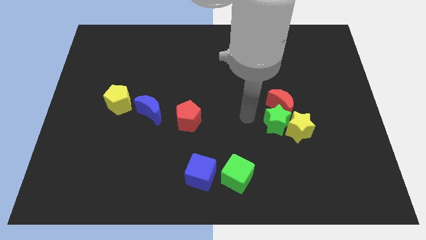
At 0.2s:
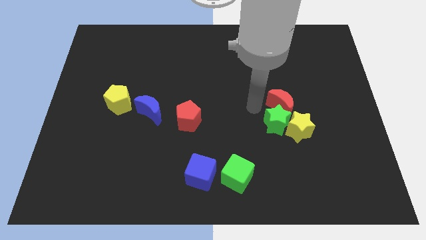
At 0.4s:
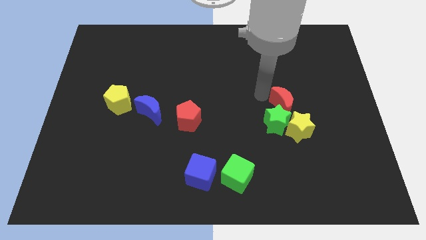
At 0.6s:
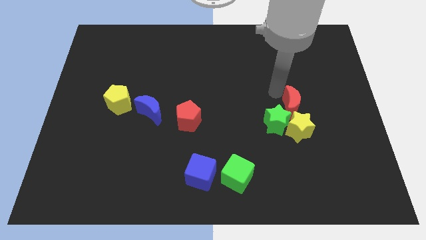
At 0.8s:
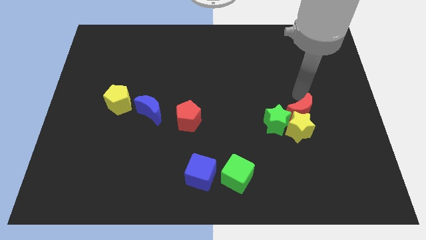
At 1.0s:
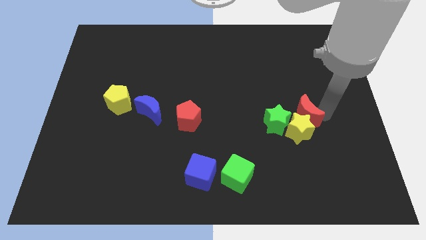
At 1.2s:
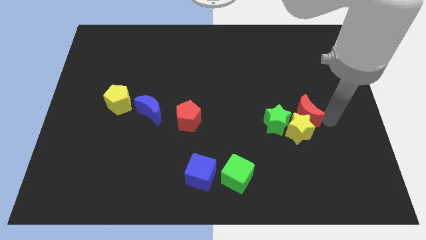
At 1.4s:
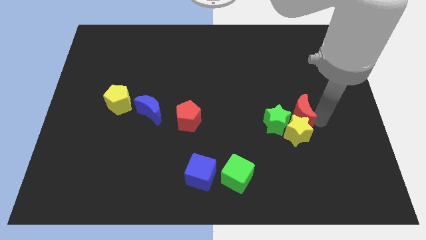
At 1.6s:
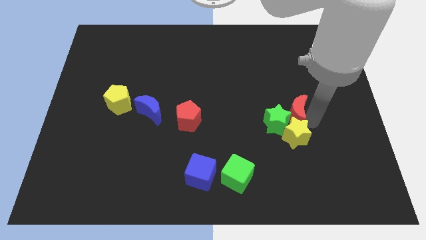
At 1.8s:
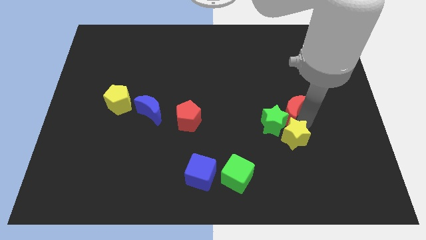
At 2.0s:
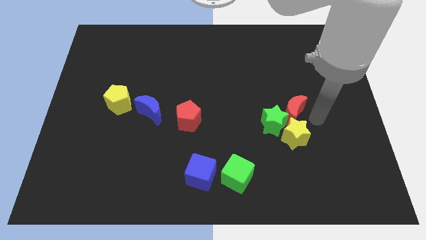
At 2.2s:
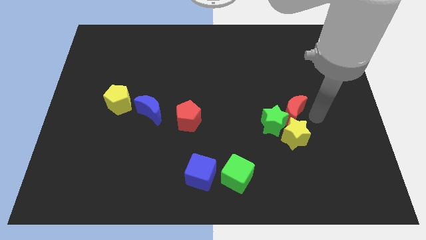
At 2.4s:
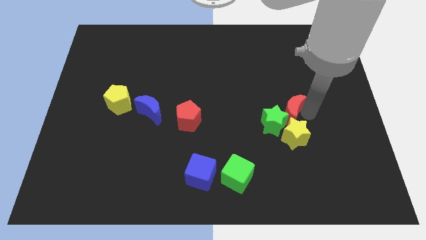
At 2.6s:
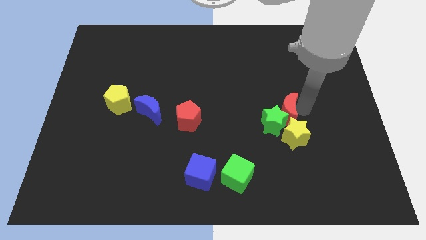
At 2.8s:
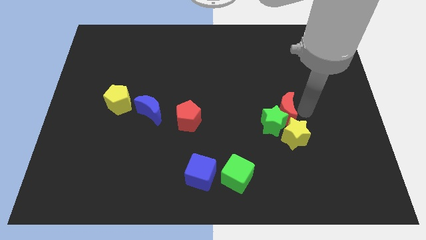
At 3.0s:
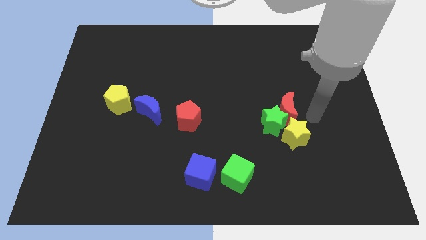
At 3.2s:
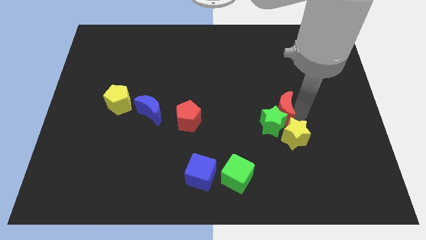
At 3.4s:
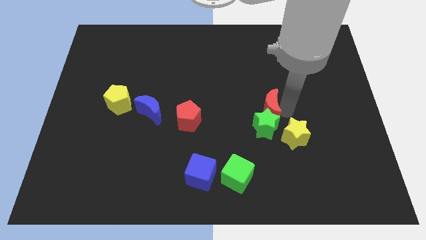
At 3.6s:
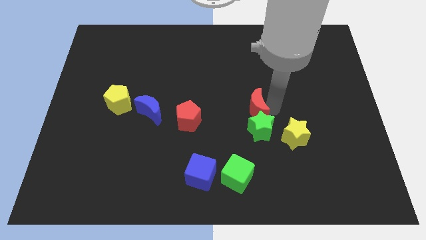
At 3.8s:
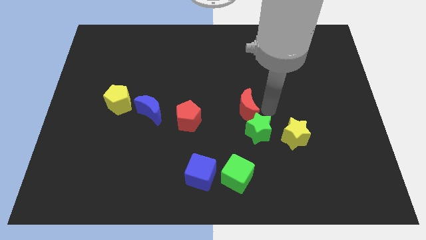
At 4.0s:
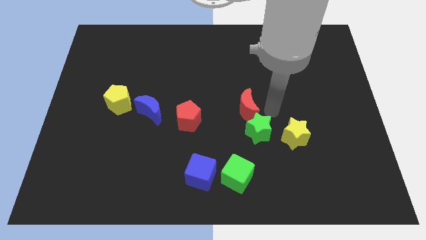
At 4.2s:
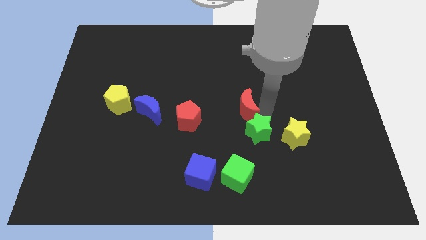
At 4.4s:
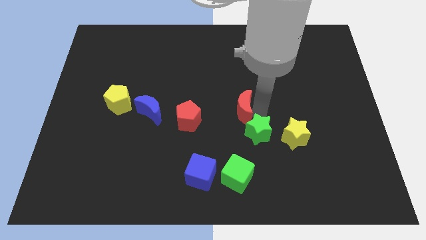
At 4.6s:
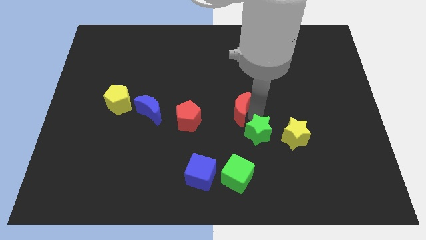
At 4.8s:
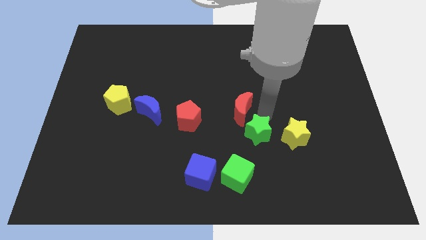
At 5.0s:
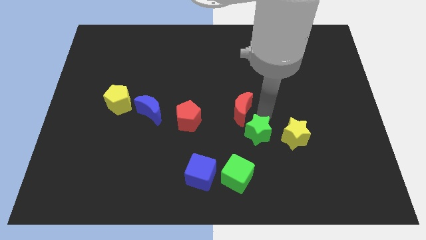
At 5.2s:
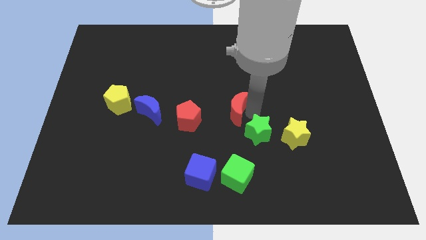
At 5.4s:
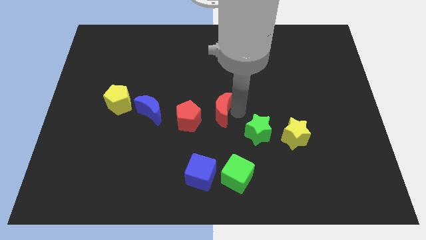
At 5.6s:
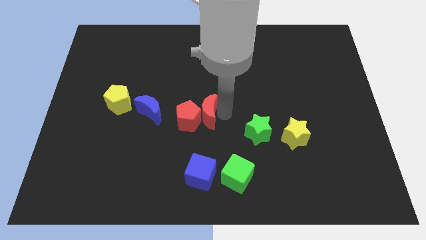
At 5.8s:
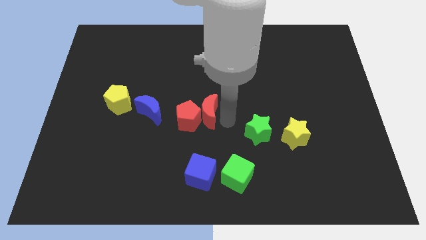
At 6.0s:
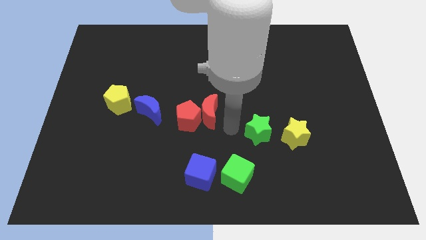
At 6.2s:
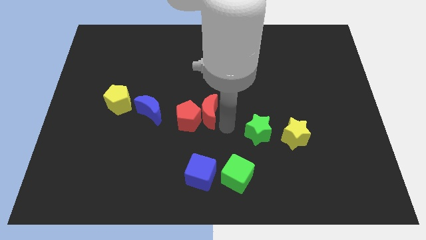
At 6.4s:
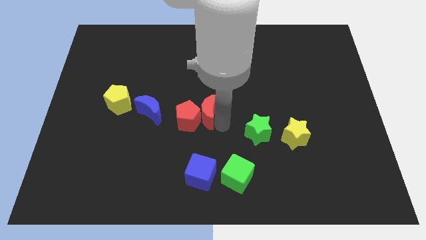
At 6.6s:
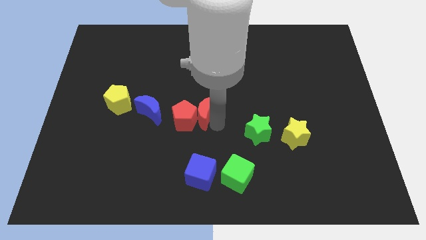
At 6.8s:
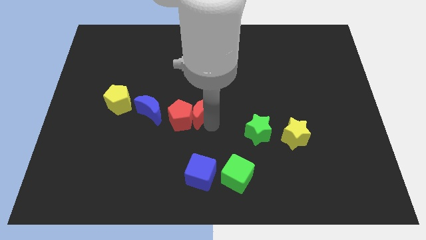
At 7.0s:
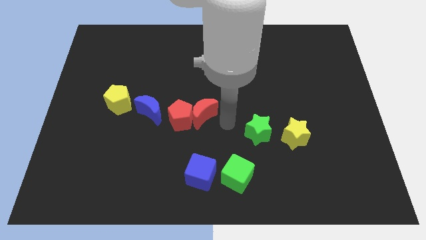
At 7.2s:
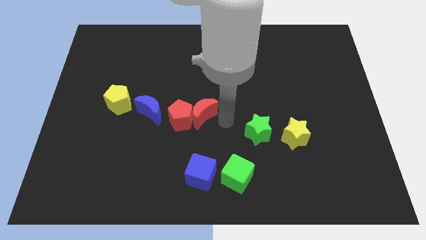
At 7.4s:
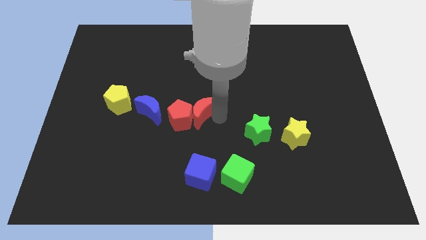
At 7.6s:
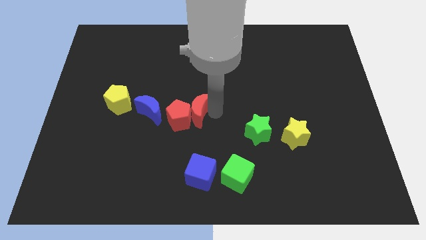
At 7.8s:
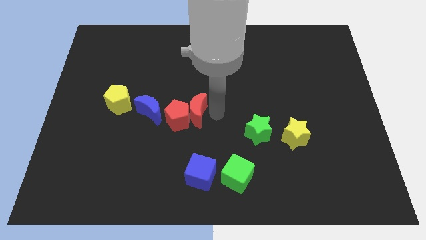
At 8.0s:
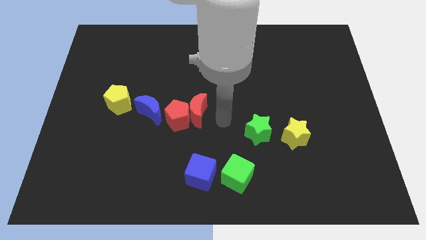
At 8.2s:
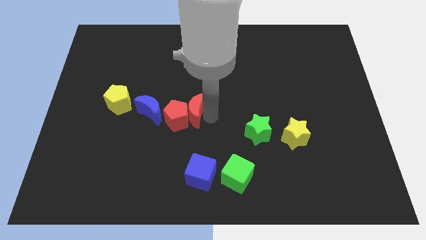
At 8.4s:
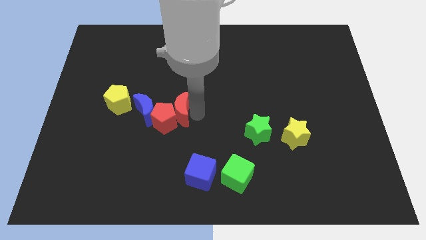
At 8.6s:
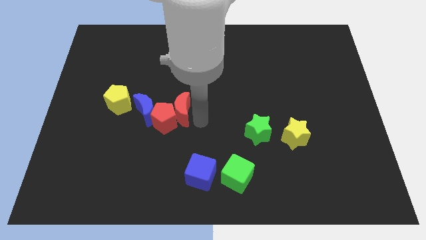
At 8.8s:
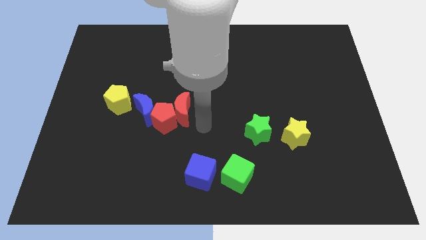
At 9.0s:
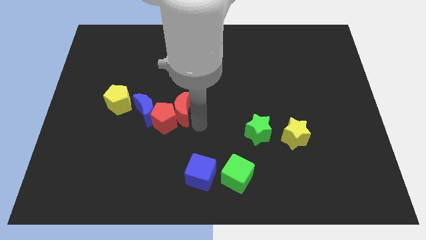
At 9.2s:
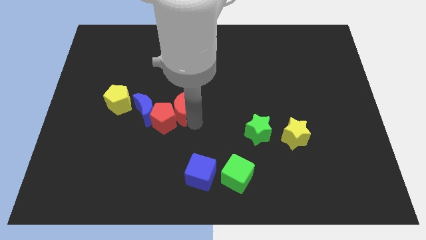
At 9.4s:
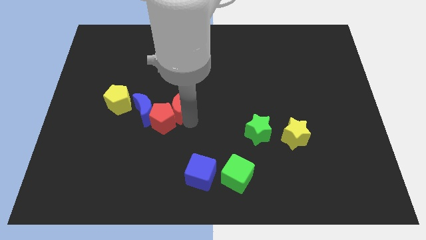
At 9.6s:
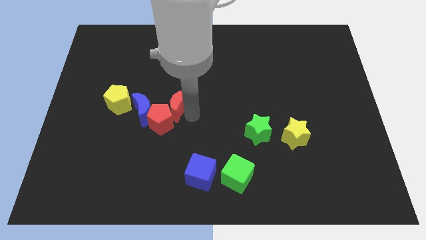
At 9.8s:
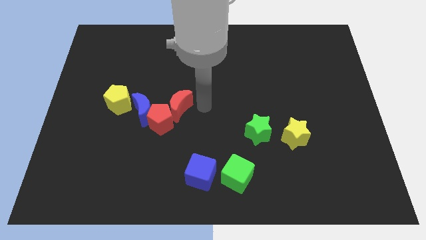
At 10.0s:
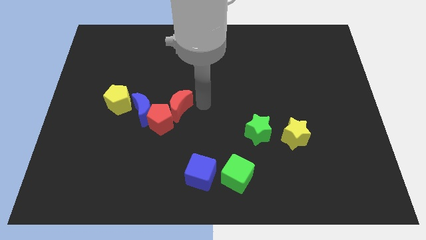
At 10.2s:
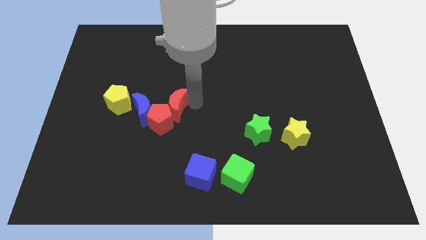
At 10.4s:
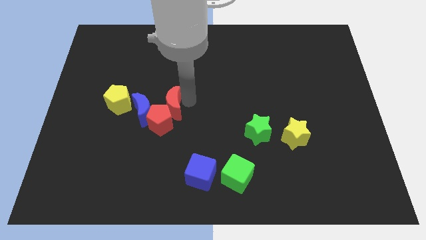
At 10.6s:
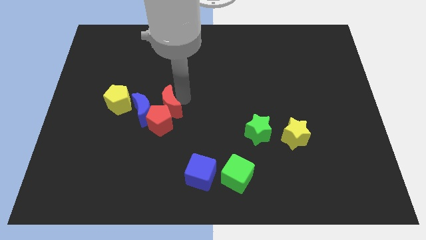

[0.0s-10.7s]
push the red moon towards the blue moon

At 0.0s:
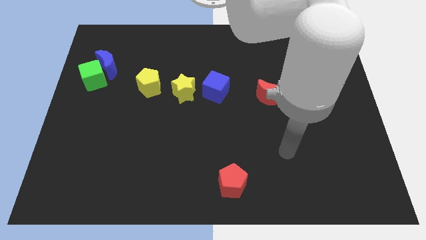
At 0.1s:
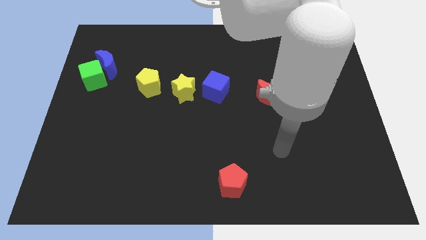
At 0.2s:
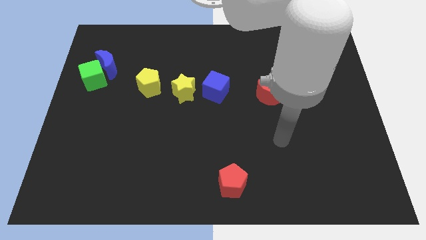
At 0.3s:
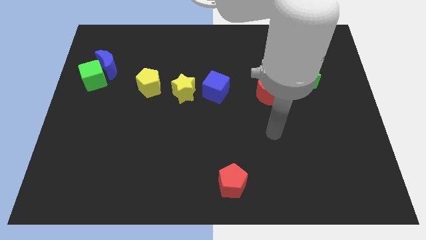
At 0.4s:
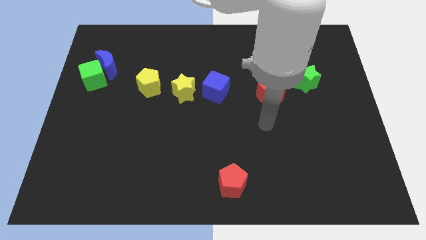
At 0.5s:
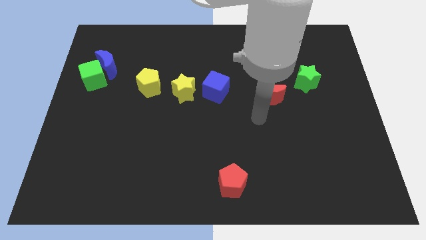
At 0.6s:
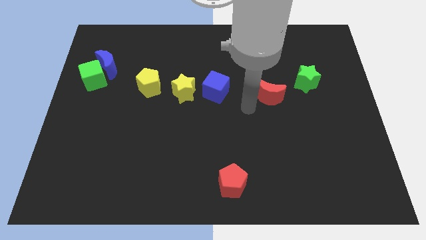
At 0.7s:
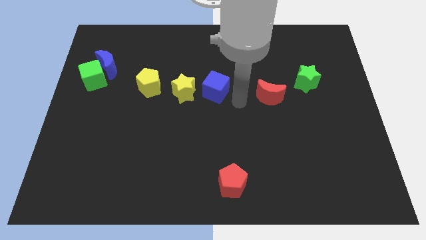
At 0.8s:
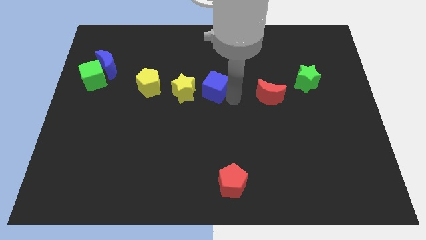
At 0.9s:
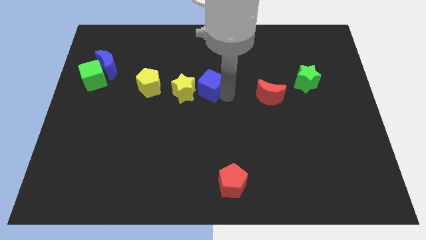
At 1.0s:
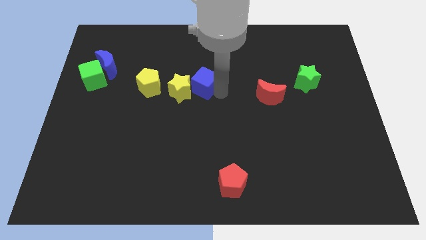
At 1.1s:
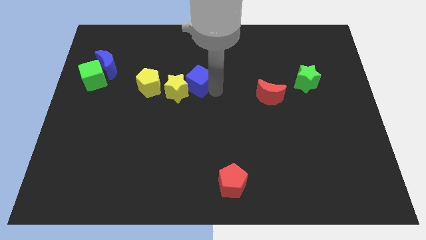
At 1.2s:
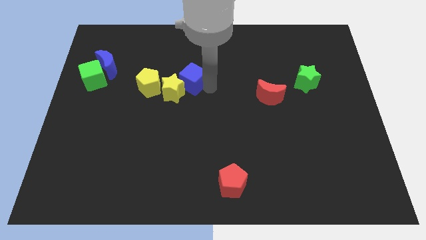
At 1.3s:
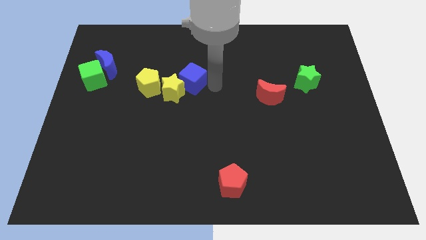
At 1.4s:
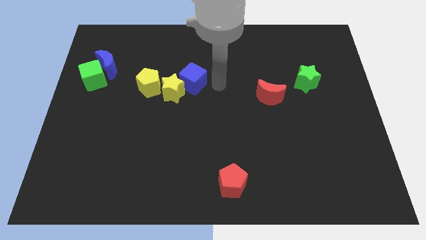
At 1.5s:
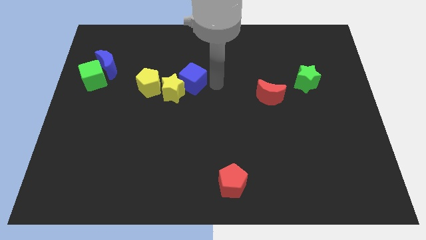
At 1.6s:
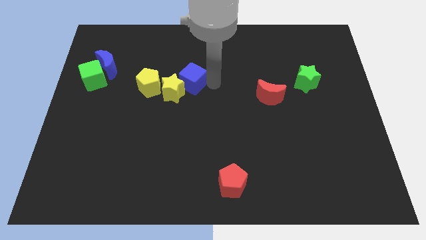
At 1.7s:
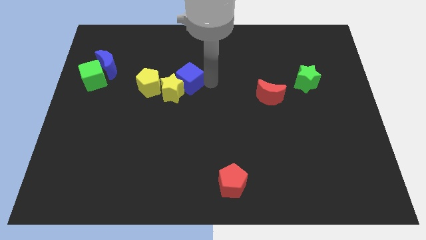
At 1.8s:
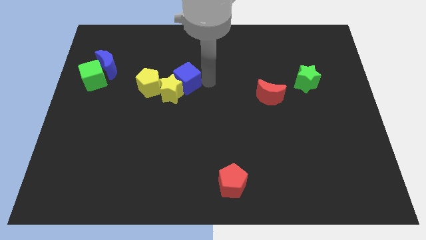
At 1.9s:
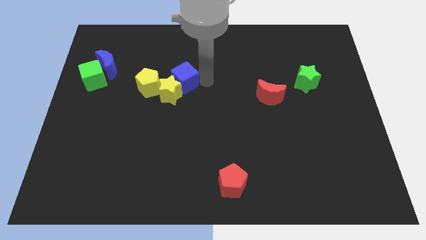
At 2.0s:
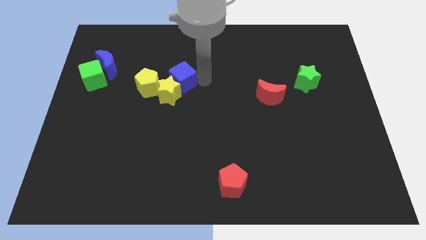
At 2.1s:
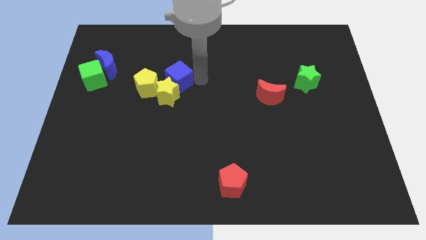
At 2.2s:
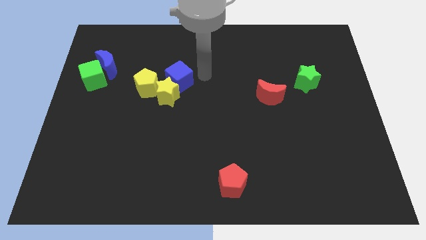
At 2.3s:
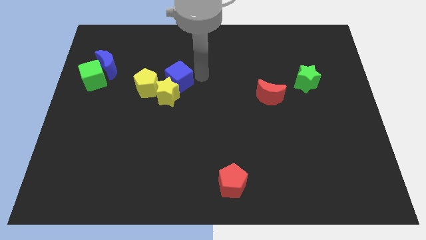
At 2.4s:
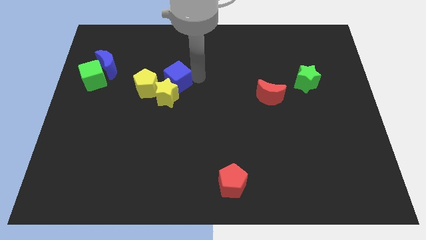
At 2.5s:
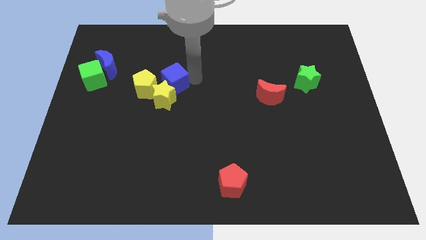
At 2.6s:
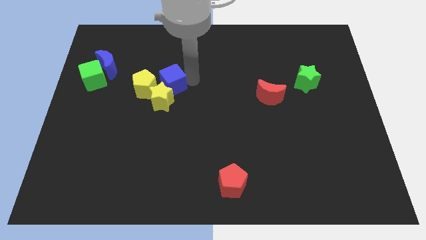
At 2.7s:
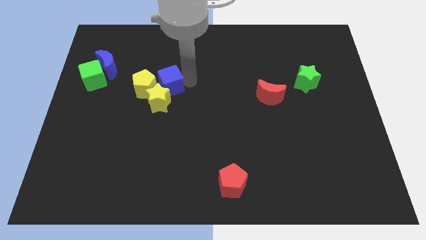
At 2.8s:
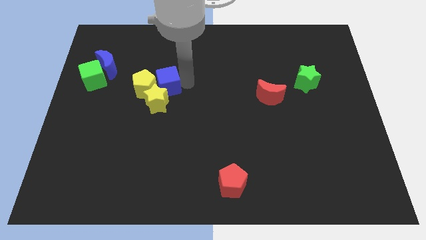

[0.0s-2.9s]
push the blue cube towards the yellow pentagon
